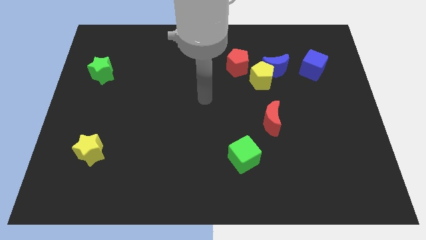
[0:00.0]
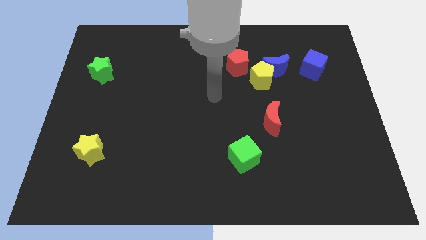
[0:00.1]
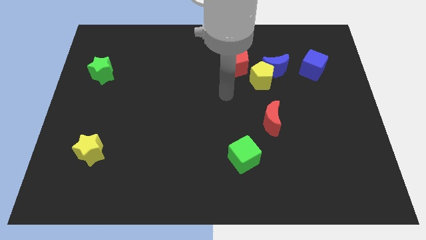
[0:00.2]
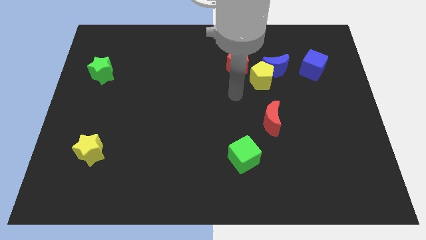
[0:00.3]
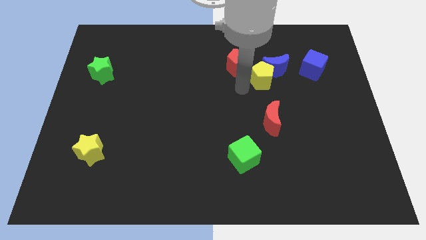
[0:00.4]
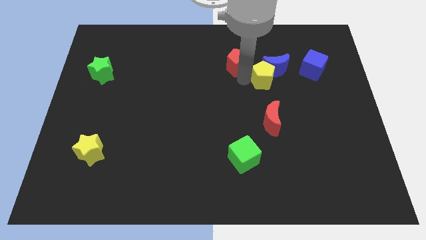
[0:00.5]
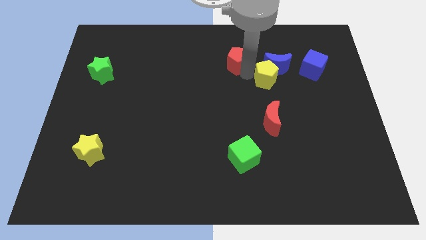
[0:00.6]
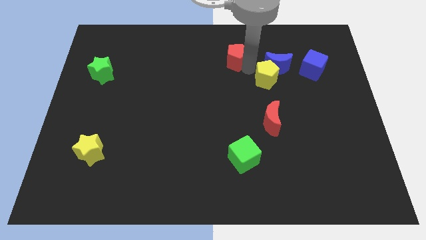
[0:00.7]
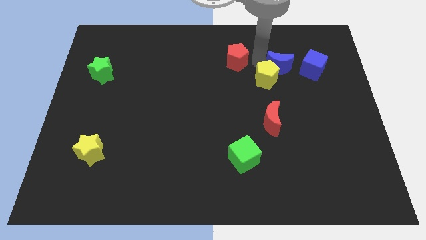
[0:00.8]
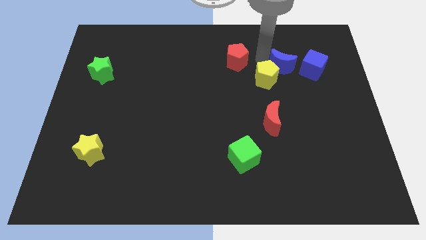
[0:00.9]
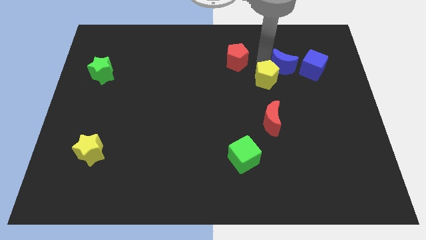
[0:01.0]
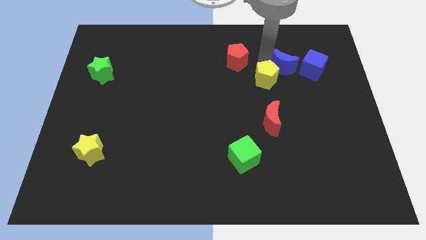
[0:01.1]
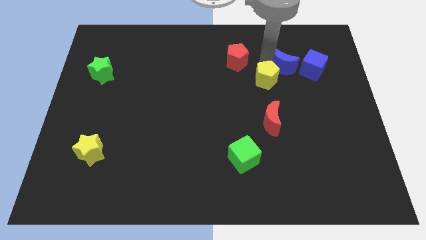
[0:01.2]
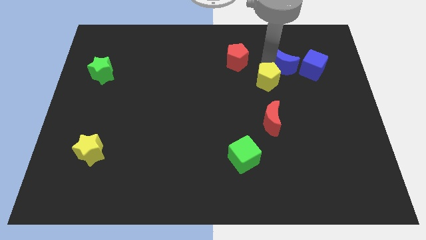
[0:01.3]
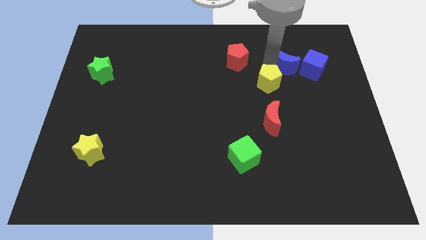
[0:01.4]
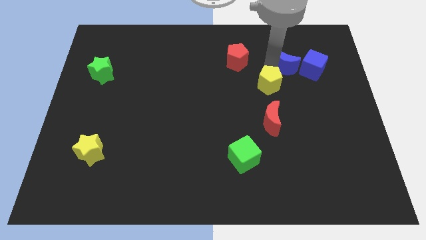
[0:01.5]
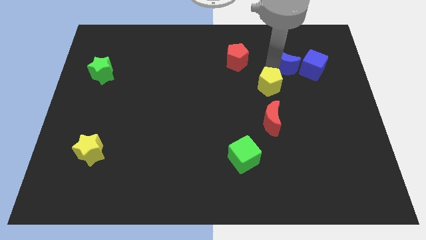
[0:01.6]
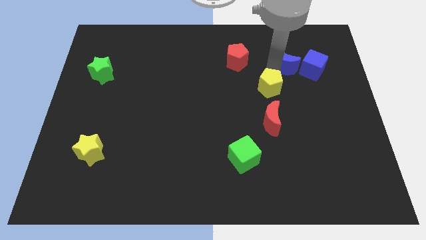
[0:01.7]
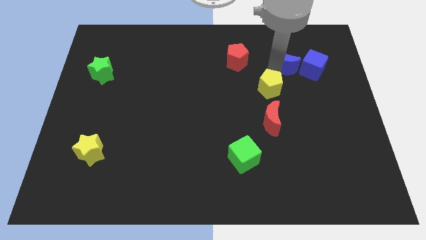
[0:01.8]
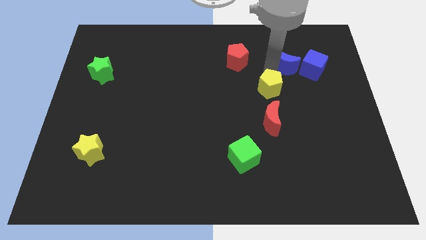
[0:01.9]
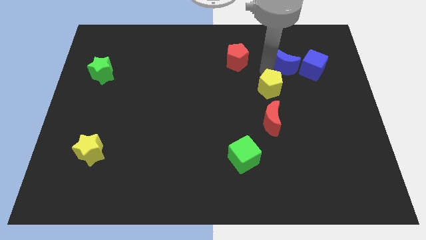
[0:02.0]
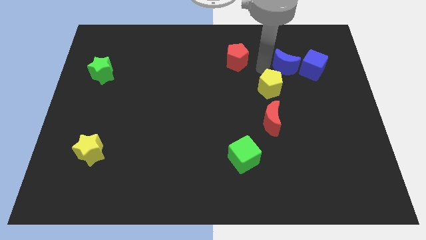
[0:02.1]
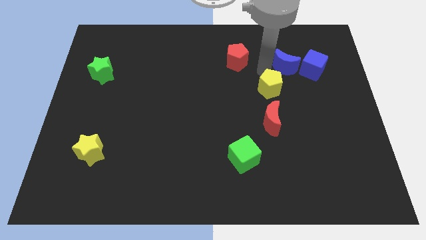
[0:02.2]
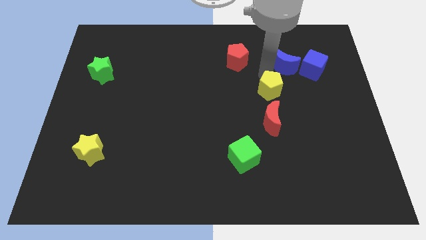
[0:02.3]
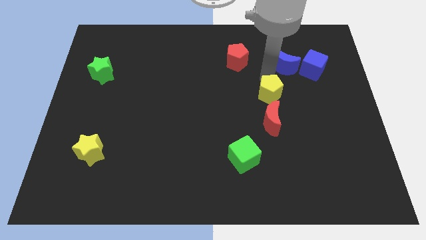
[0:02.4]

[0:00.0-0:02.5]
pull the yellow pentagon apart from the blue moon and red pentagon

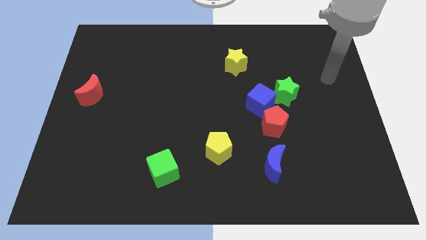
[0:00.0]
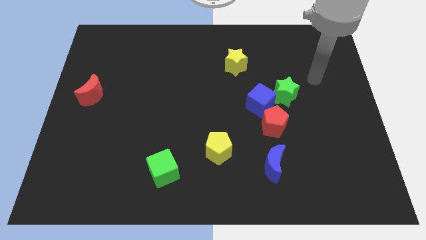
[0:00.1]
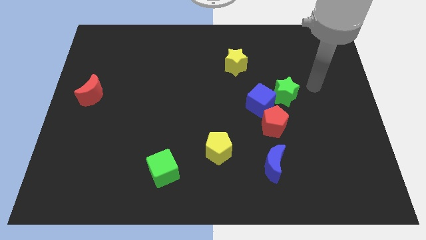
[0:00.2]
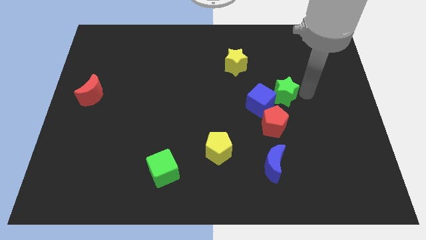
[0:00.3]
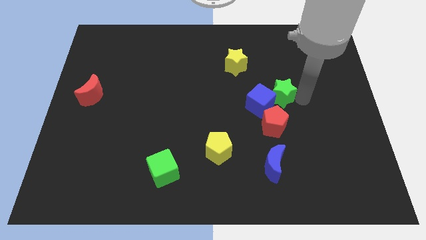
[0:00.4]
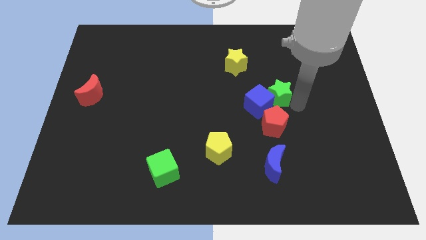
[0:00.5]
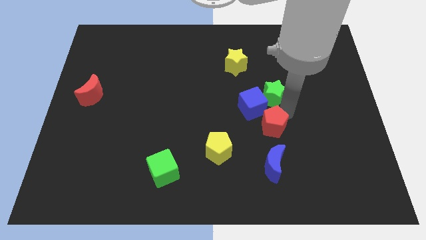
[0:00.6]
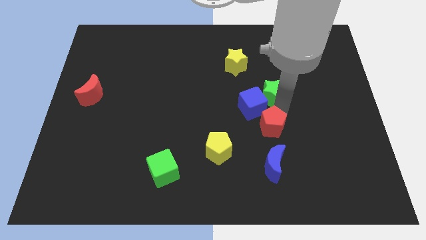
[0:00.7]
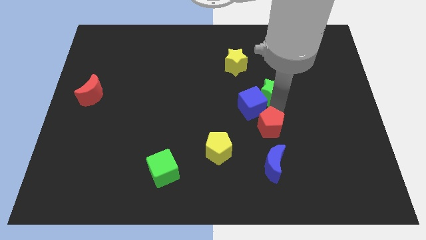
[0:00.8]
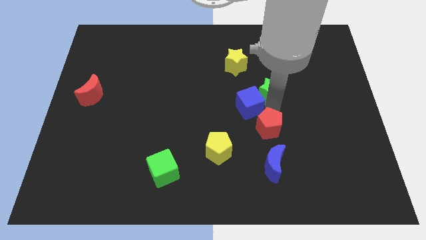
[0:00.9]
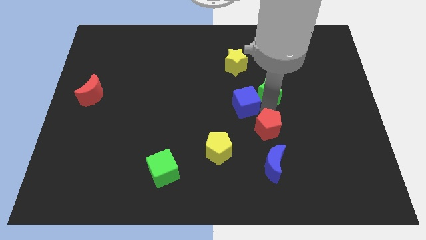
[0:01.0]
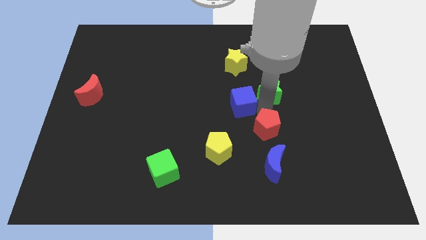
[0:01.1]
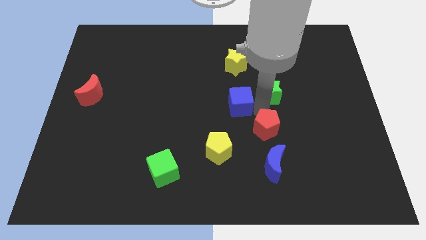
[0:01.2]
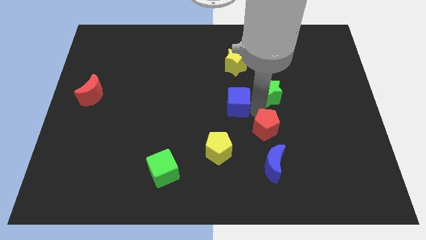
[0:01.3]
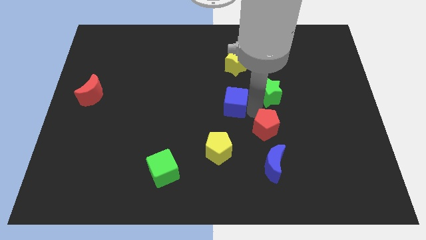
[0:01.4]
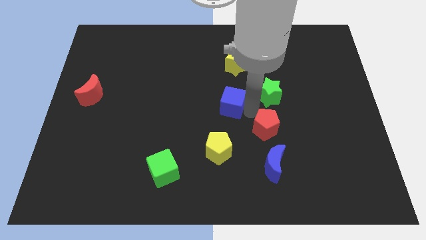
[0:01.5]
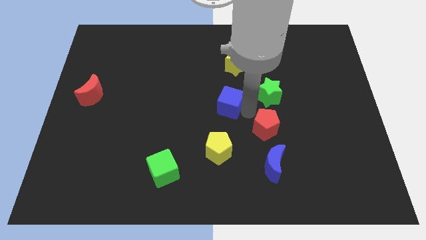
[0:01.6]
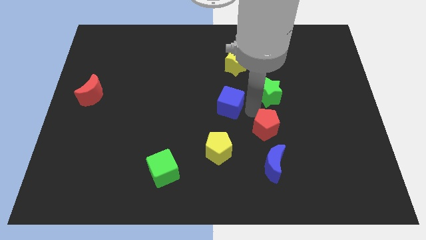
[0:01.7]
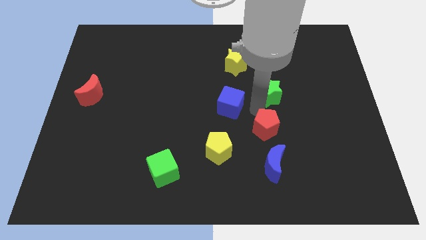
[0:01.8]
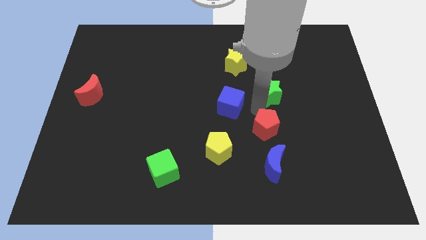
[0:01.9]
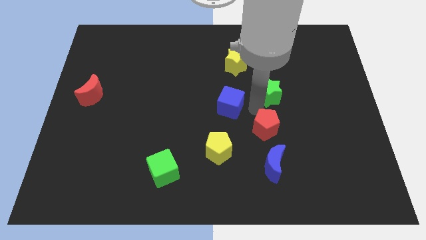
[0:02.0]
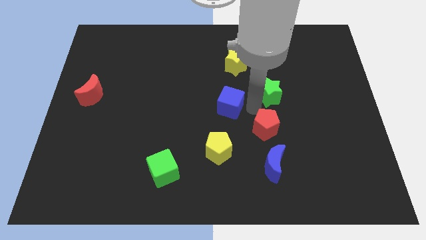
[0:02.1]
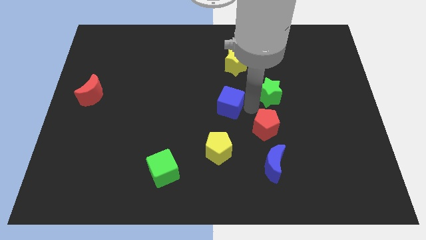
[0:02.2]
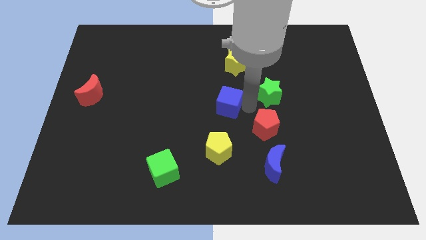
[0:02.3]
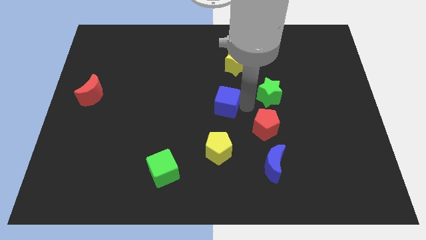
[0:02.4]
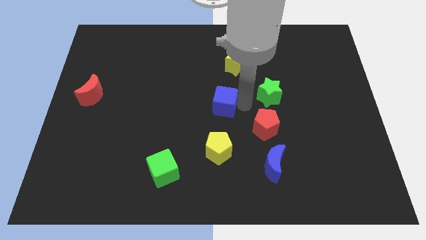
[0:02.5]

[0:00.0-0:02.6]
move the blue cube away from the green star and red pentagon

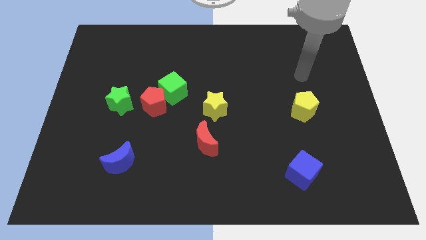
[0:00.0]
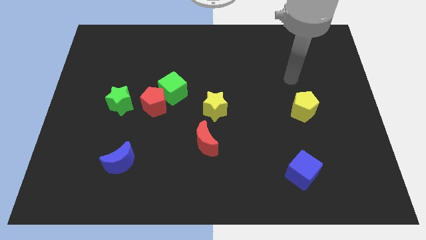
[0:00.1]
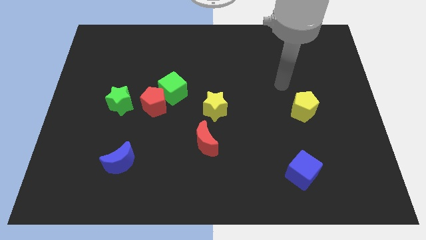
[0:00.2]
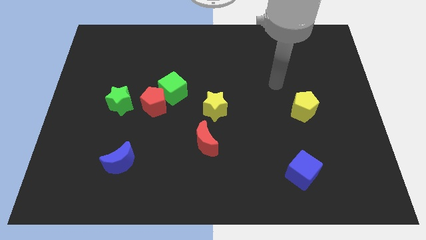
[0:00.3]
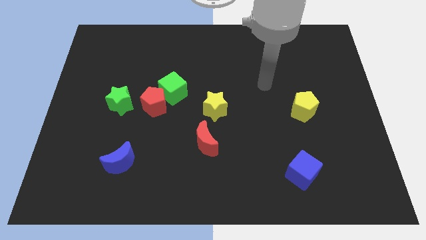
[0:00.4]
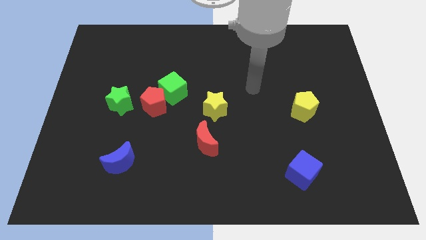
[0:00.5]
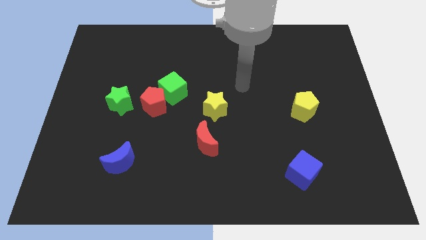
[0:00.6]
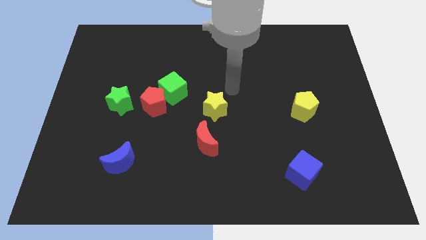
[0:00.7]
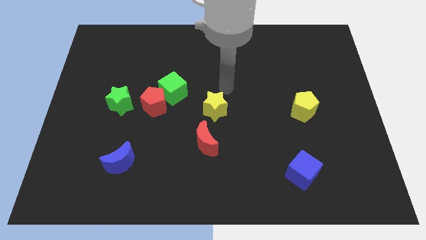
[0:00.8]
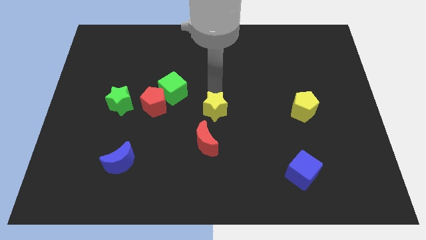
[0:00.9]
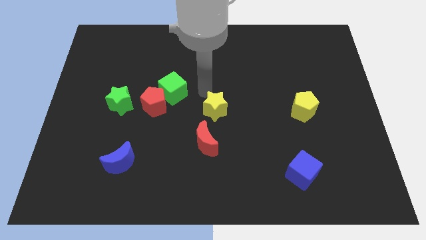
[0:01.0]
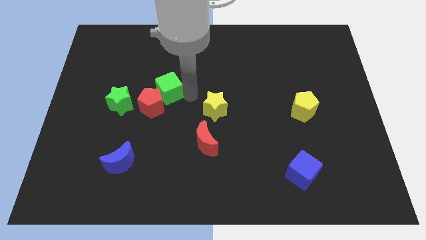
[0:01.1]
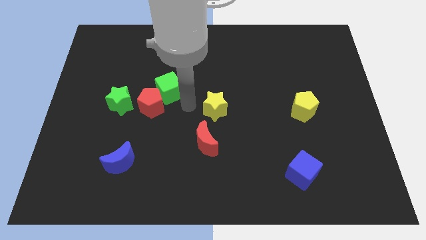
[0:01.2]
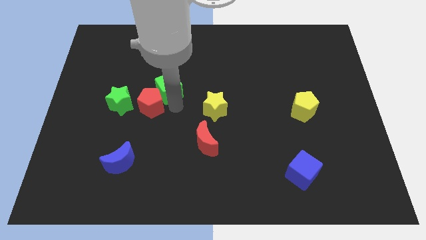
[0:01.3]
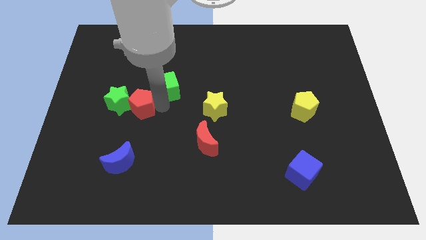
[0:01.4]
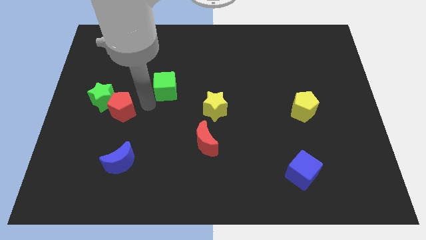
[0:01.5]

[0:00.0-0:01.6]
separate the green cube from the red pentagon

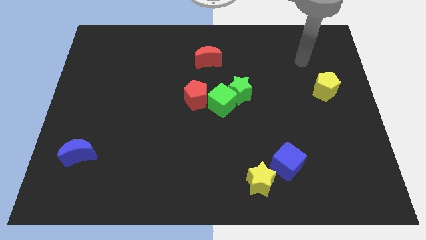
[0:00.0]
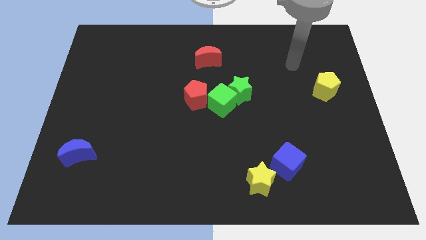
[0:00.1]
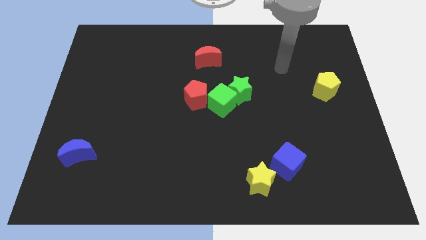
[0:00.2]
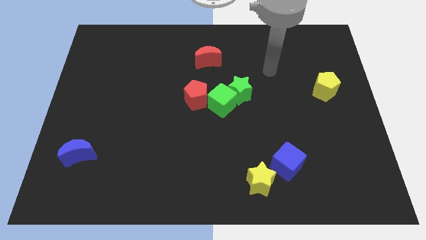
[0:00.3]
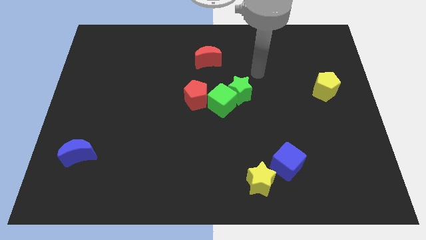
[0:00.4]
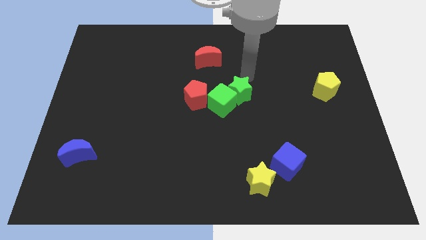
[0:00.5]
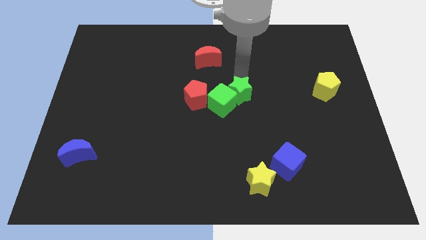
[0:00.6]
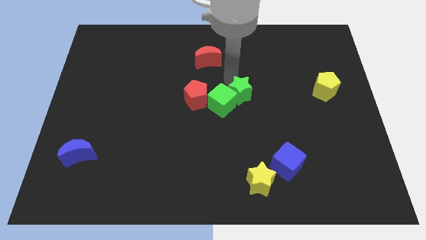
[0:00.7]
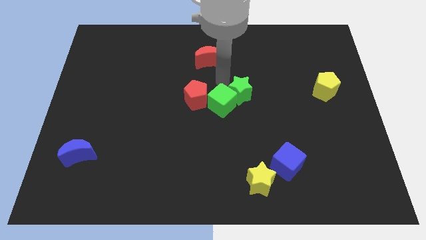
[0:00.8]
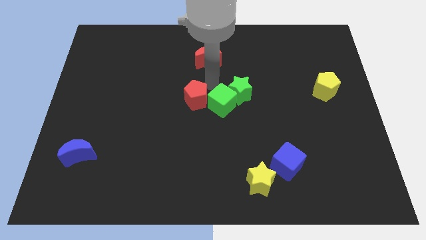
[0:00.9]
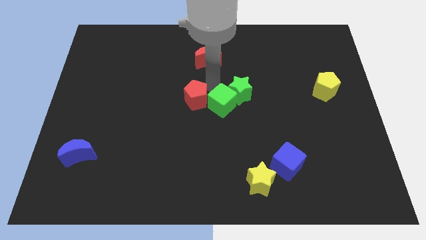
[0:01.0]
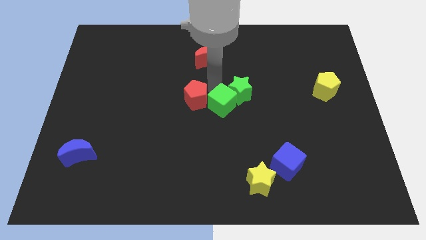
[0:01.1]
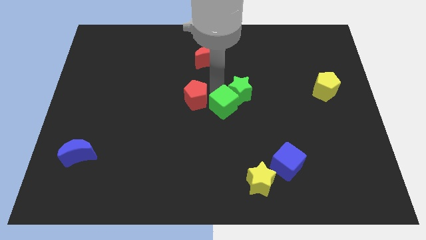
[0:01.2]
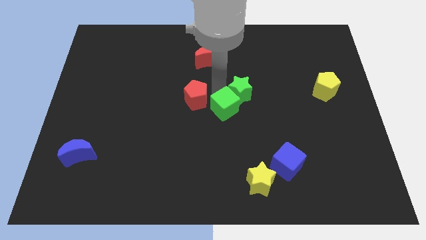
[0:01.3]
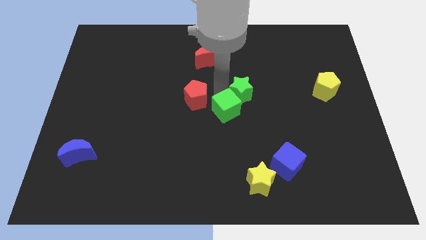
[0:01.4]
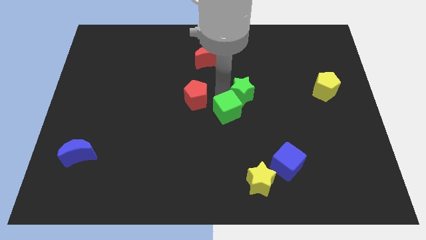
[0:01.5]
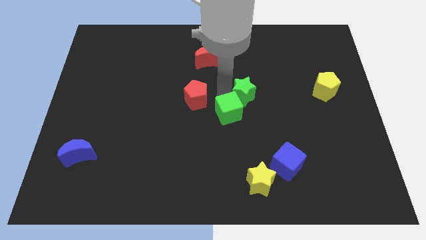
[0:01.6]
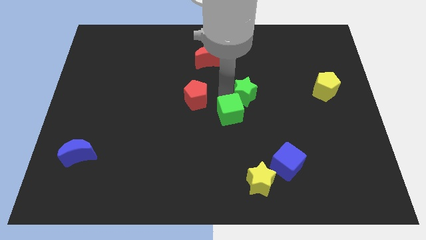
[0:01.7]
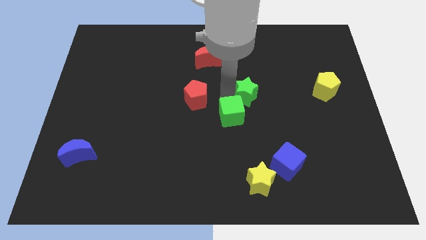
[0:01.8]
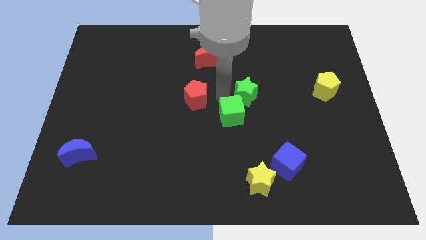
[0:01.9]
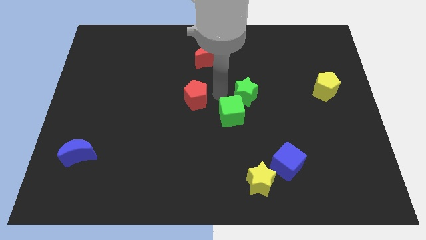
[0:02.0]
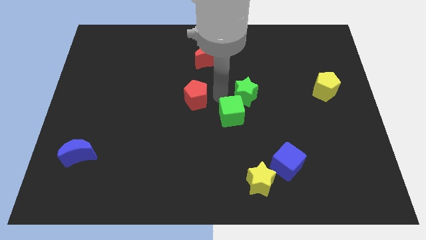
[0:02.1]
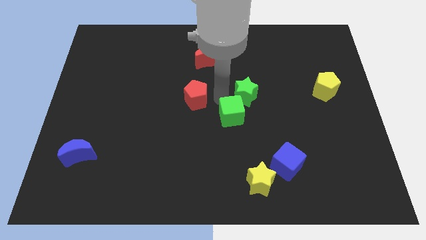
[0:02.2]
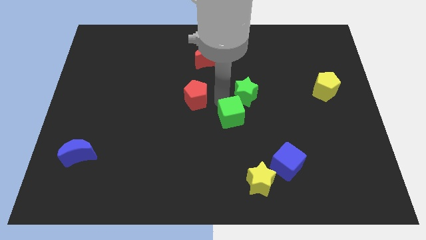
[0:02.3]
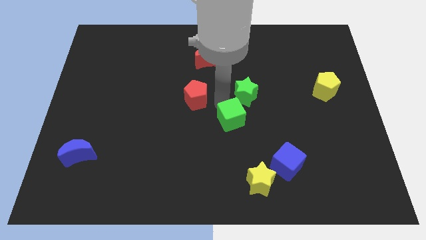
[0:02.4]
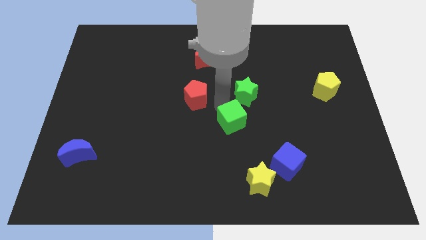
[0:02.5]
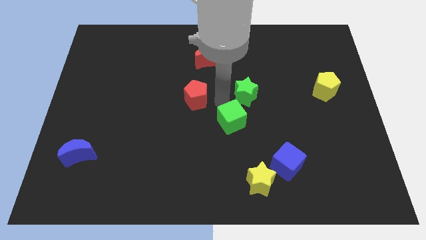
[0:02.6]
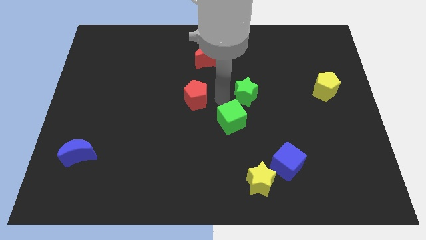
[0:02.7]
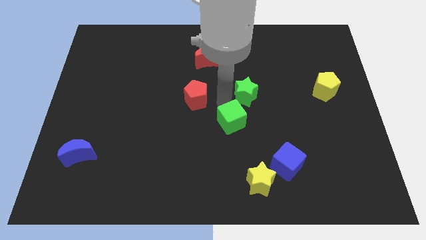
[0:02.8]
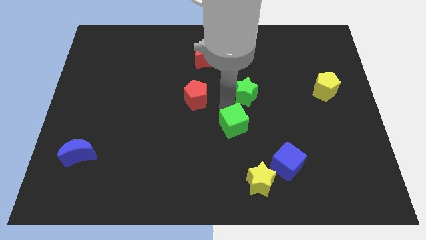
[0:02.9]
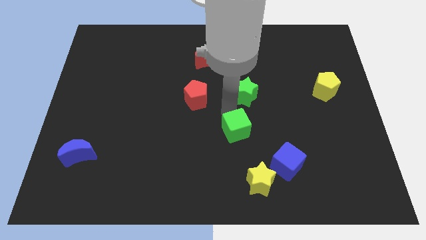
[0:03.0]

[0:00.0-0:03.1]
separate the green cube from the green star and red pentagon
